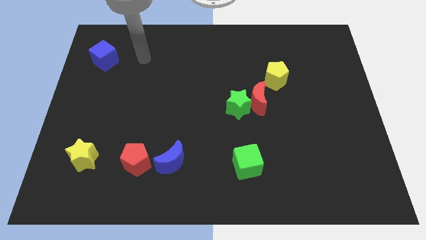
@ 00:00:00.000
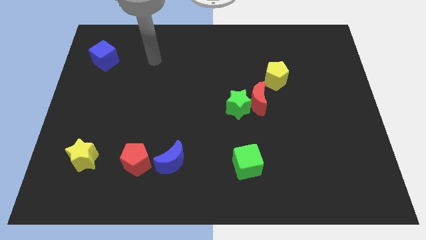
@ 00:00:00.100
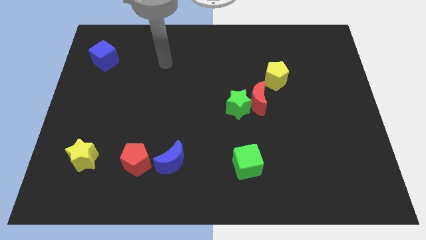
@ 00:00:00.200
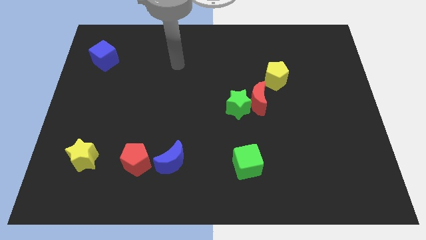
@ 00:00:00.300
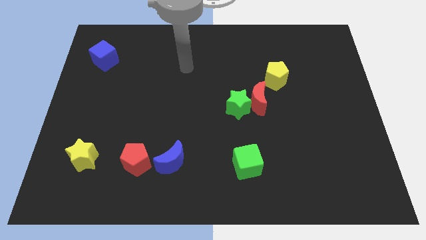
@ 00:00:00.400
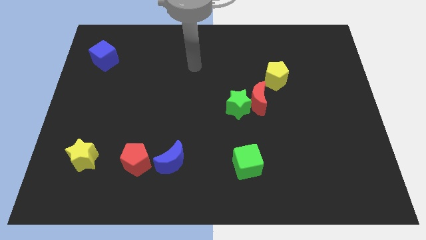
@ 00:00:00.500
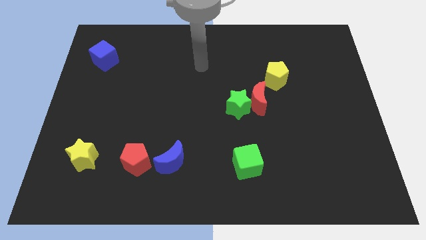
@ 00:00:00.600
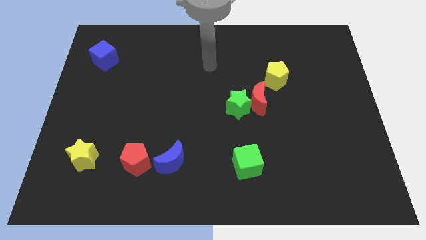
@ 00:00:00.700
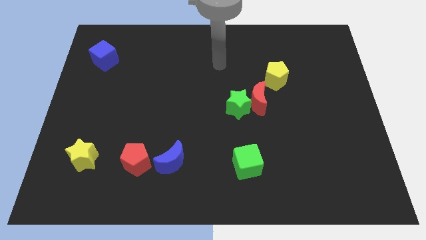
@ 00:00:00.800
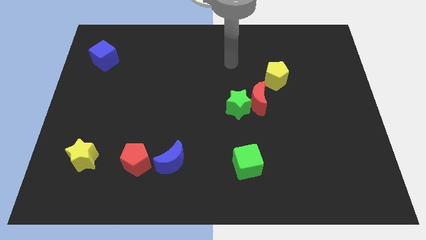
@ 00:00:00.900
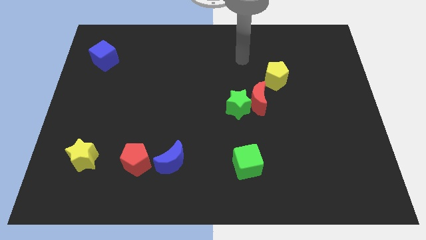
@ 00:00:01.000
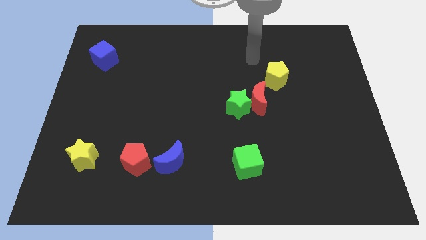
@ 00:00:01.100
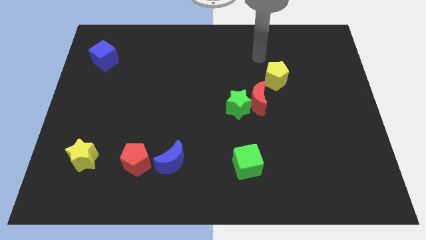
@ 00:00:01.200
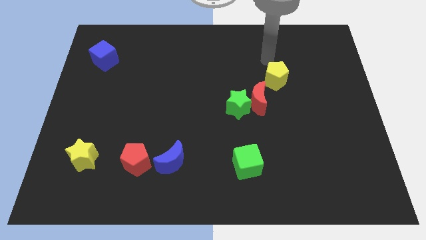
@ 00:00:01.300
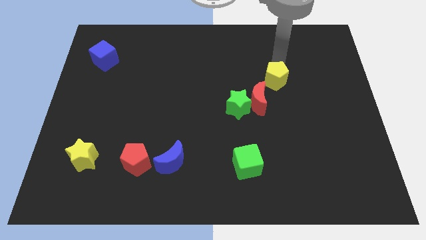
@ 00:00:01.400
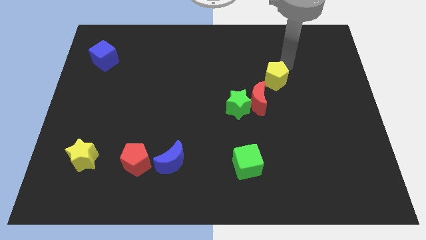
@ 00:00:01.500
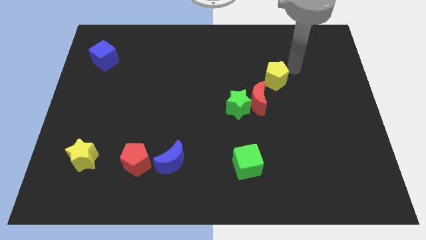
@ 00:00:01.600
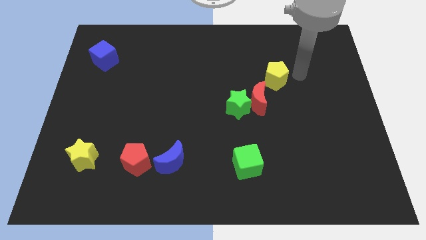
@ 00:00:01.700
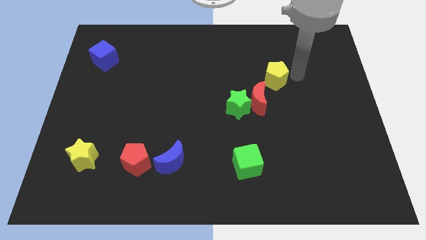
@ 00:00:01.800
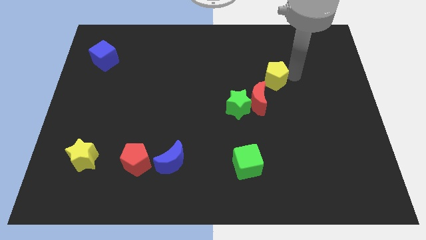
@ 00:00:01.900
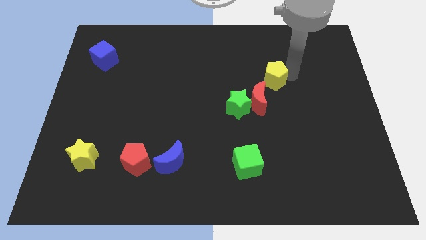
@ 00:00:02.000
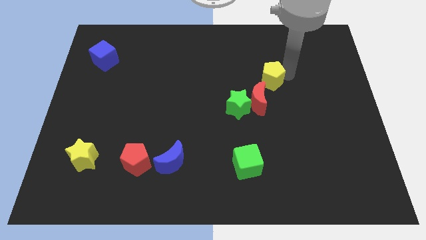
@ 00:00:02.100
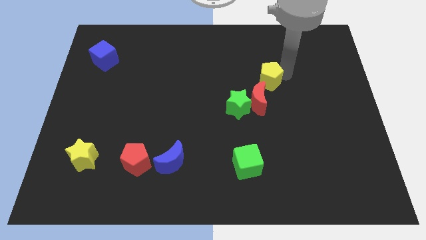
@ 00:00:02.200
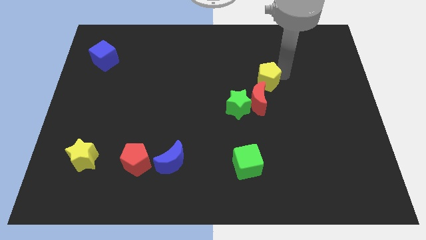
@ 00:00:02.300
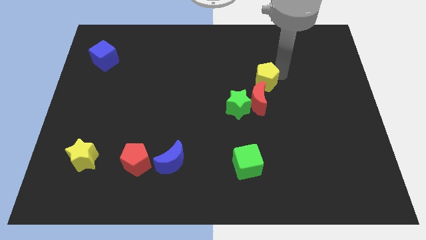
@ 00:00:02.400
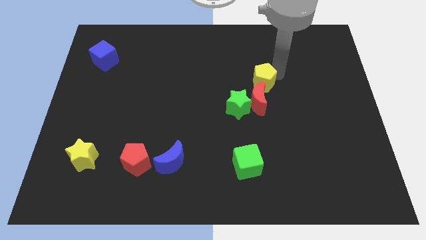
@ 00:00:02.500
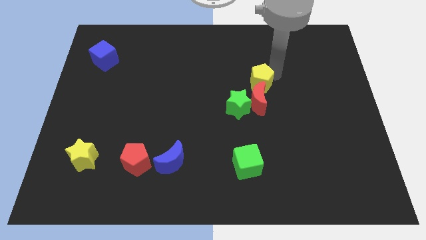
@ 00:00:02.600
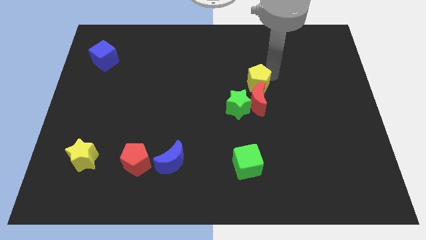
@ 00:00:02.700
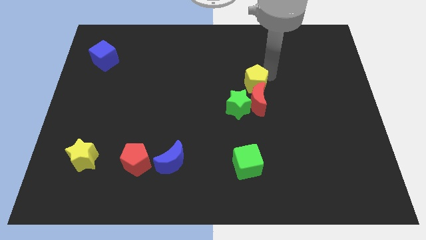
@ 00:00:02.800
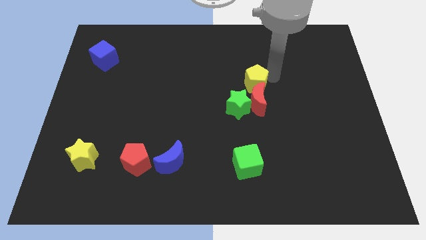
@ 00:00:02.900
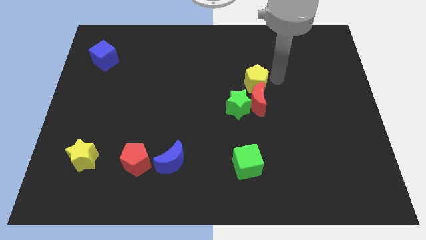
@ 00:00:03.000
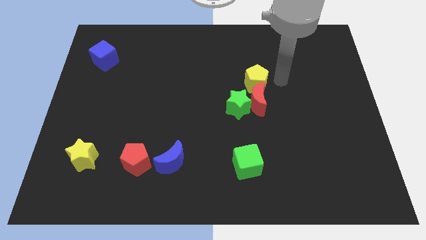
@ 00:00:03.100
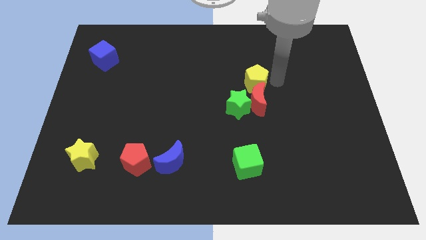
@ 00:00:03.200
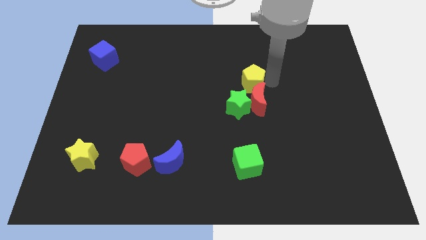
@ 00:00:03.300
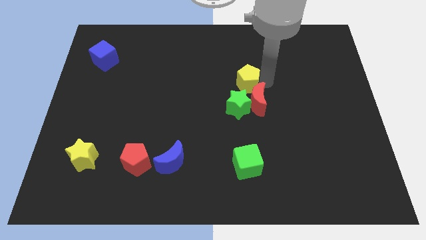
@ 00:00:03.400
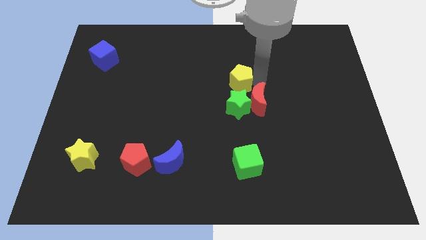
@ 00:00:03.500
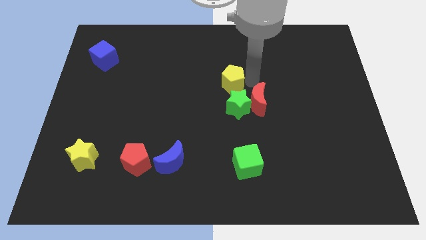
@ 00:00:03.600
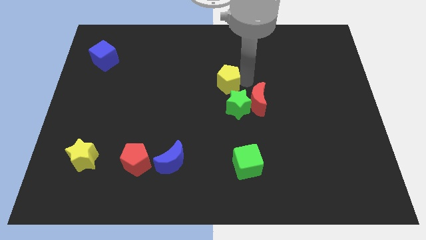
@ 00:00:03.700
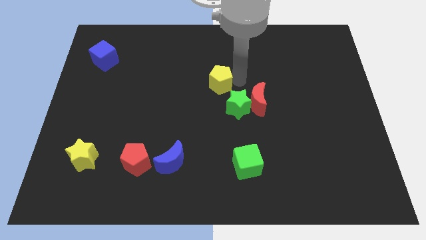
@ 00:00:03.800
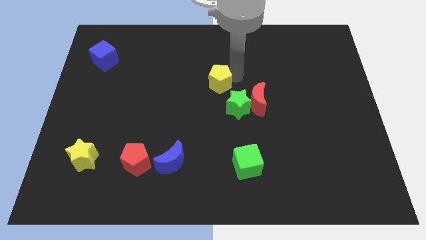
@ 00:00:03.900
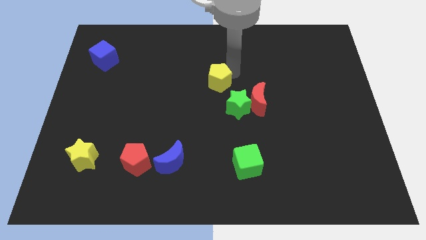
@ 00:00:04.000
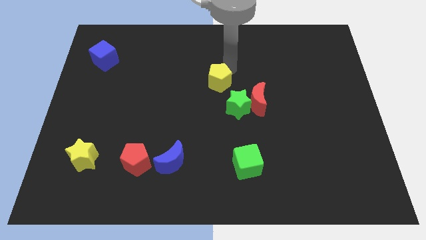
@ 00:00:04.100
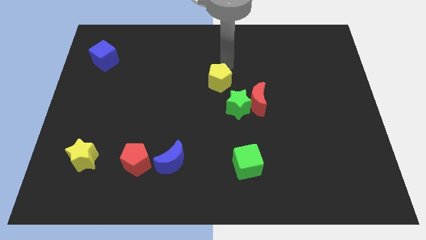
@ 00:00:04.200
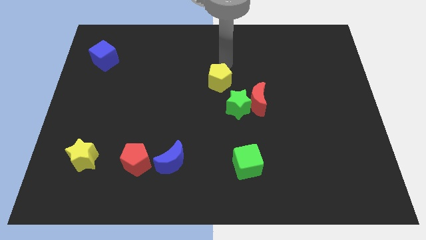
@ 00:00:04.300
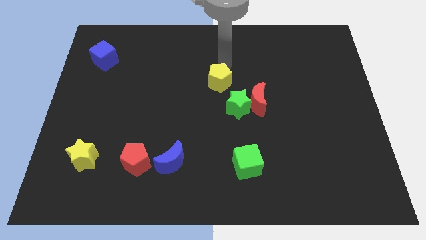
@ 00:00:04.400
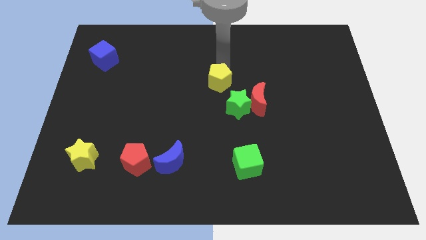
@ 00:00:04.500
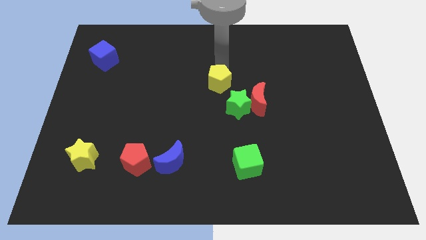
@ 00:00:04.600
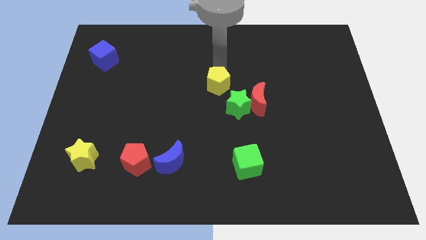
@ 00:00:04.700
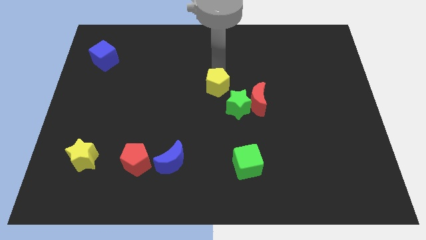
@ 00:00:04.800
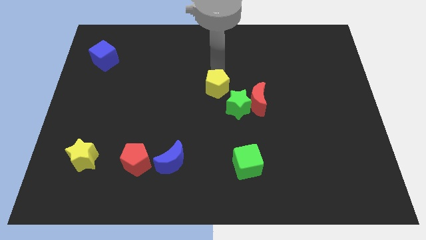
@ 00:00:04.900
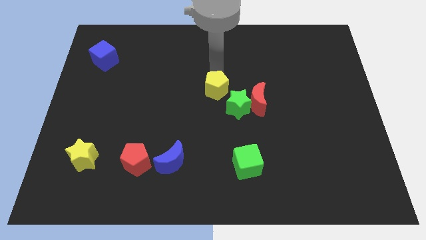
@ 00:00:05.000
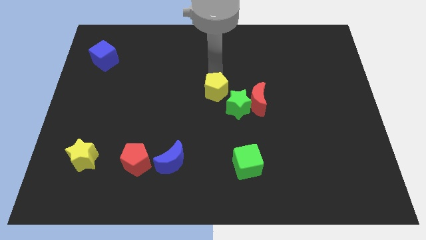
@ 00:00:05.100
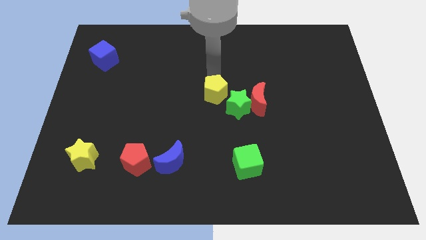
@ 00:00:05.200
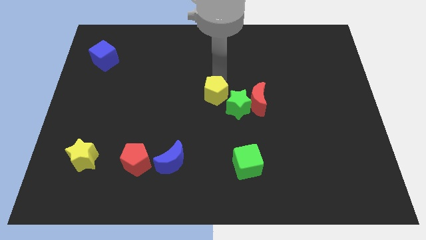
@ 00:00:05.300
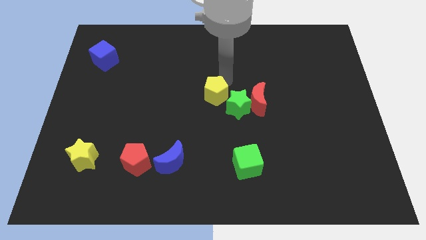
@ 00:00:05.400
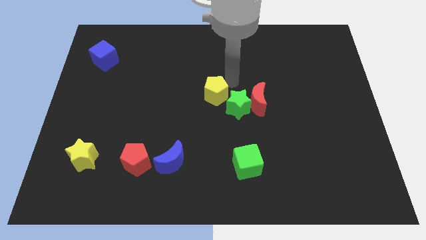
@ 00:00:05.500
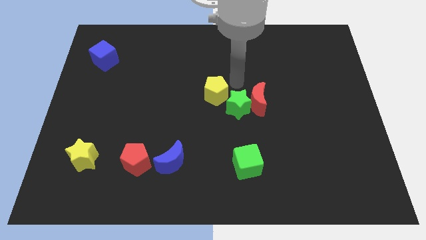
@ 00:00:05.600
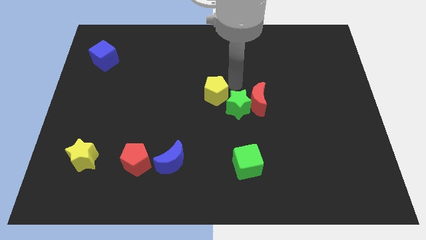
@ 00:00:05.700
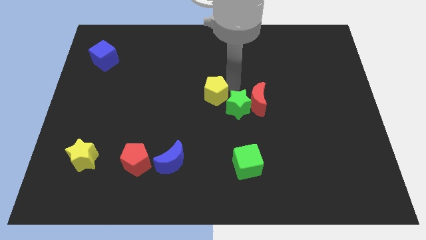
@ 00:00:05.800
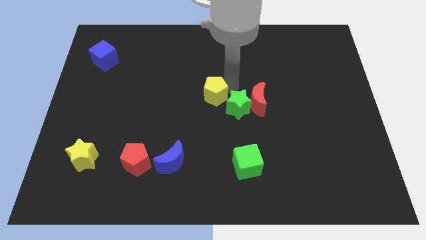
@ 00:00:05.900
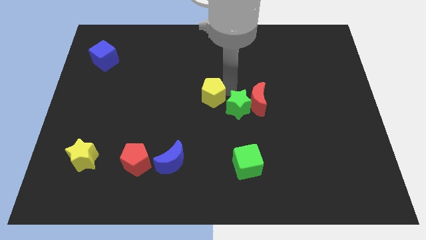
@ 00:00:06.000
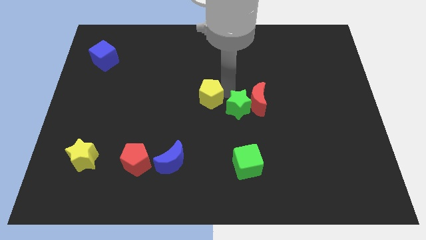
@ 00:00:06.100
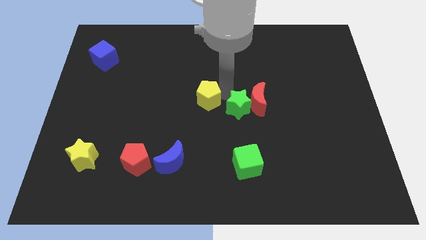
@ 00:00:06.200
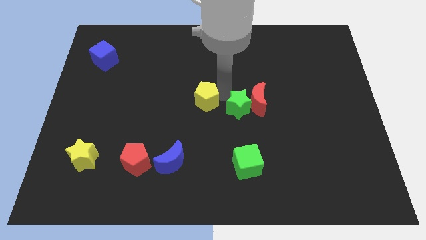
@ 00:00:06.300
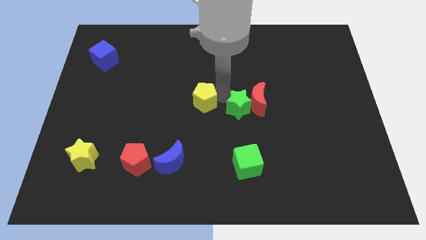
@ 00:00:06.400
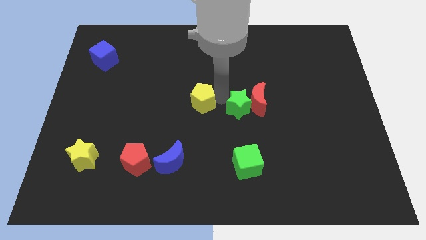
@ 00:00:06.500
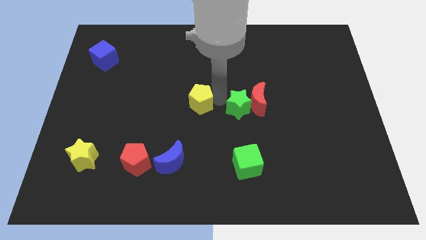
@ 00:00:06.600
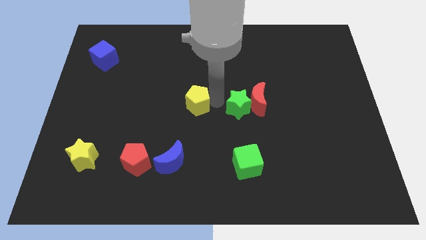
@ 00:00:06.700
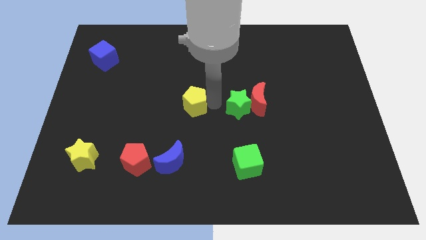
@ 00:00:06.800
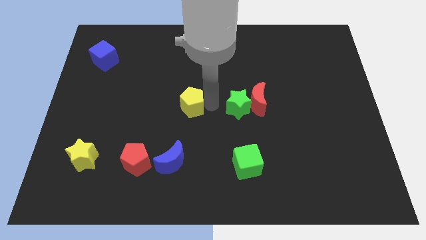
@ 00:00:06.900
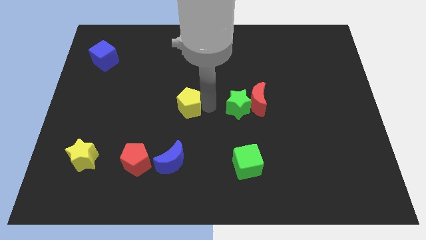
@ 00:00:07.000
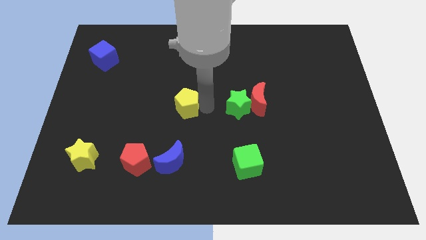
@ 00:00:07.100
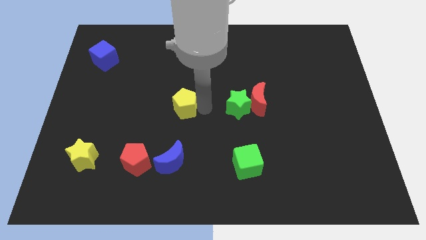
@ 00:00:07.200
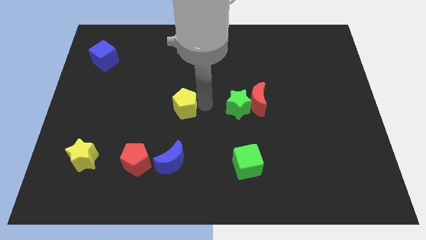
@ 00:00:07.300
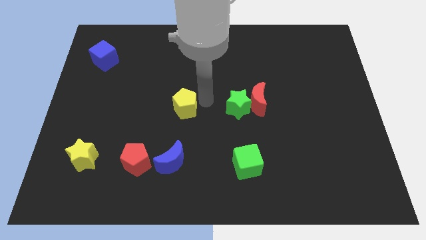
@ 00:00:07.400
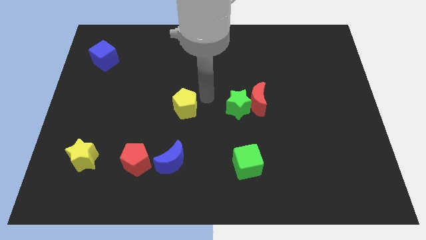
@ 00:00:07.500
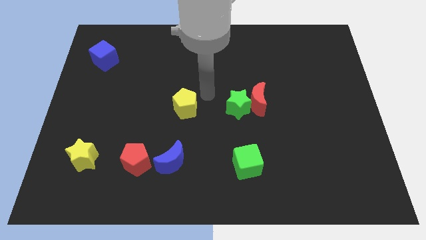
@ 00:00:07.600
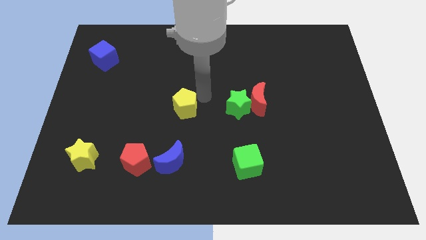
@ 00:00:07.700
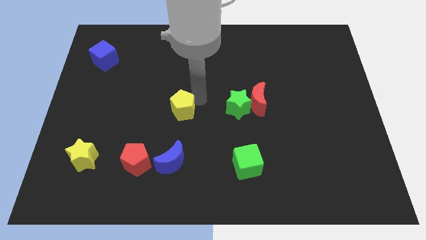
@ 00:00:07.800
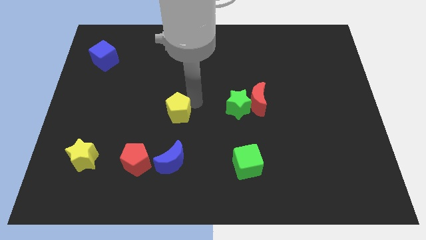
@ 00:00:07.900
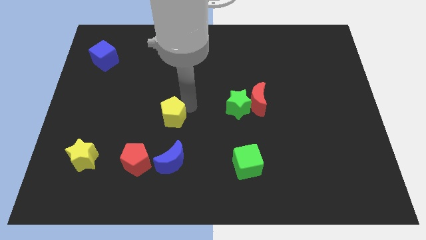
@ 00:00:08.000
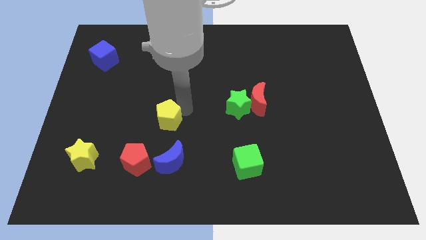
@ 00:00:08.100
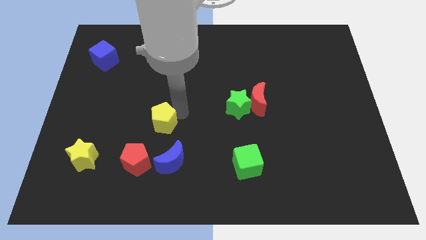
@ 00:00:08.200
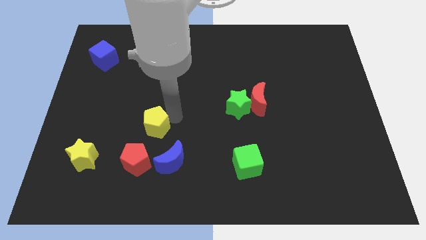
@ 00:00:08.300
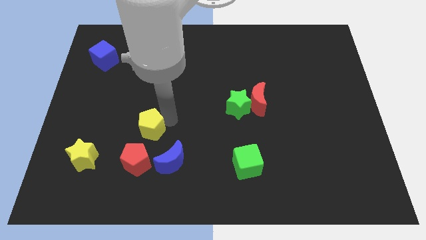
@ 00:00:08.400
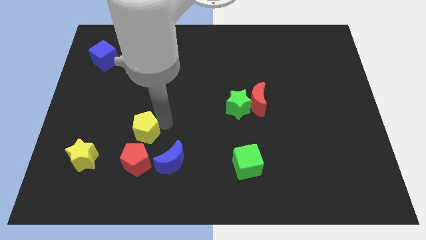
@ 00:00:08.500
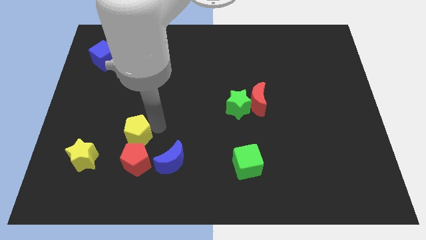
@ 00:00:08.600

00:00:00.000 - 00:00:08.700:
slide the yellow pentagon to the top right of the yellow star
